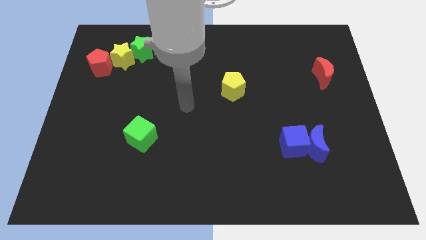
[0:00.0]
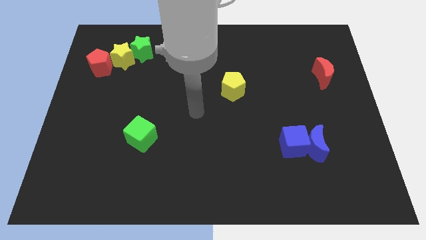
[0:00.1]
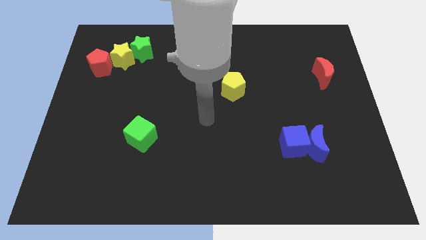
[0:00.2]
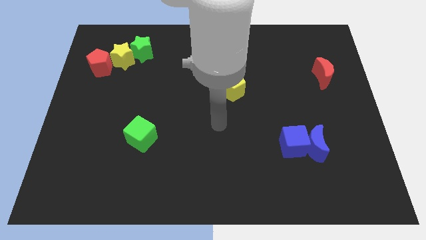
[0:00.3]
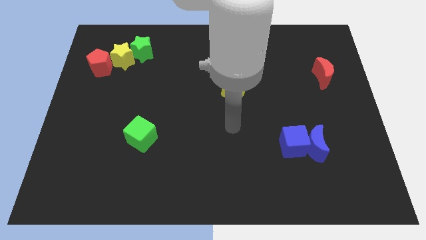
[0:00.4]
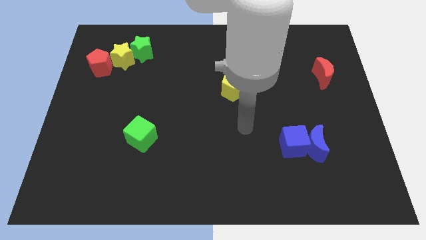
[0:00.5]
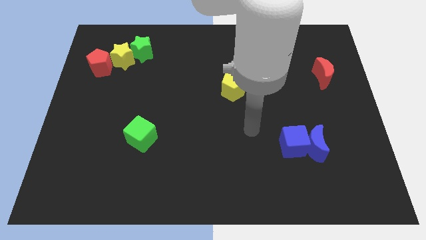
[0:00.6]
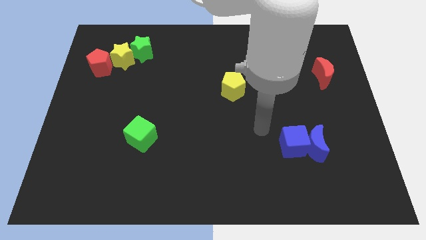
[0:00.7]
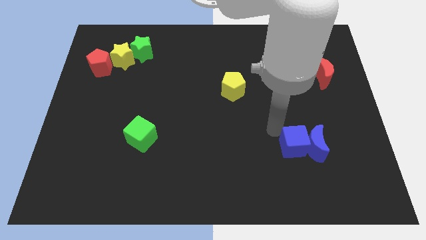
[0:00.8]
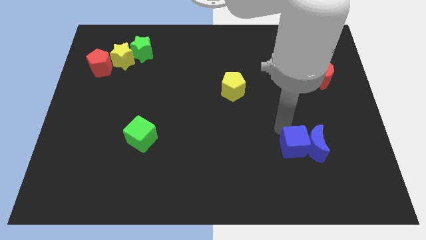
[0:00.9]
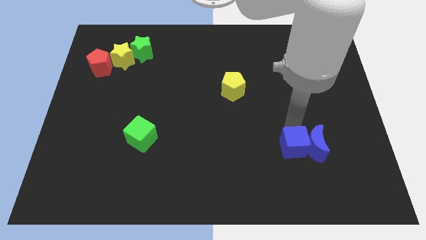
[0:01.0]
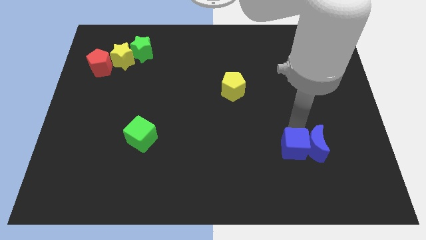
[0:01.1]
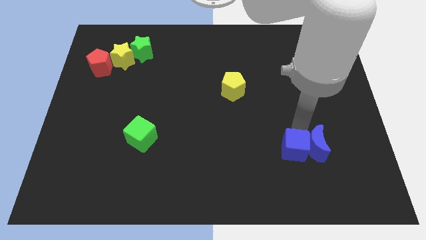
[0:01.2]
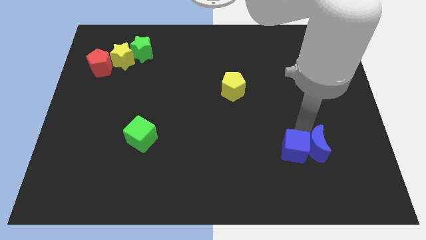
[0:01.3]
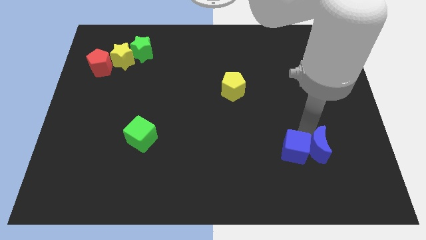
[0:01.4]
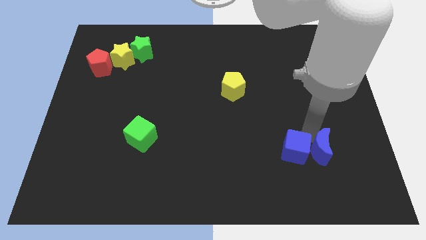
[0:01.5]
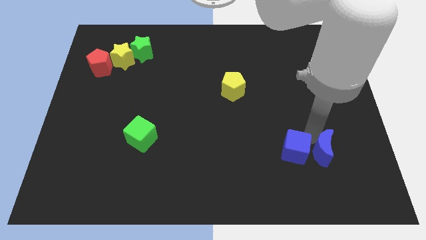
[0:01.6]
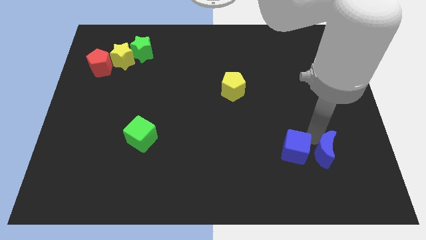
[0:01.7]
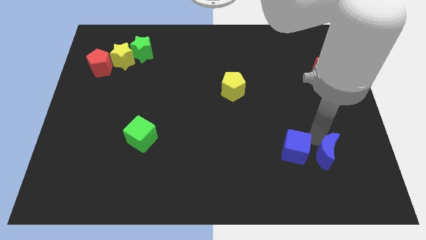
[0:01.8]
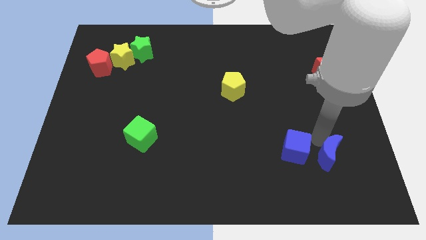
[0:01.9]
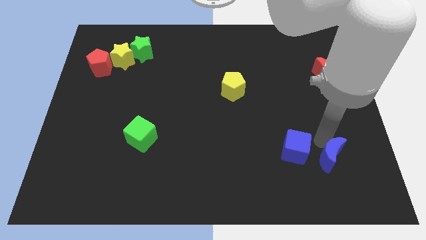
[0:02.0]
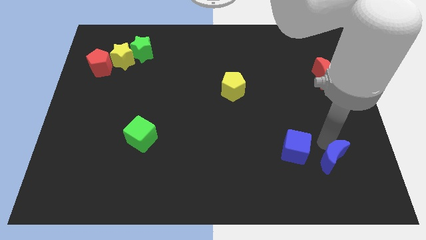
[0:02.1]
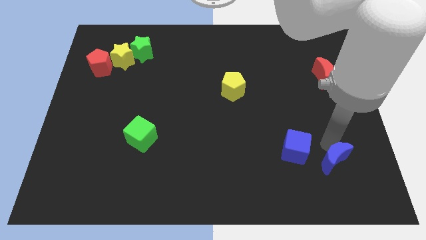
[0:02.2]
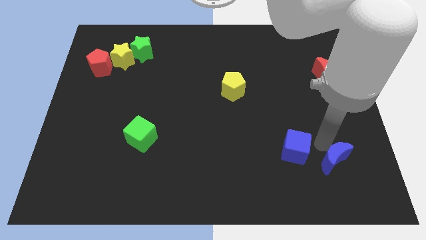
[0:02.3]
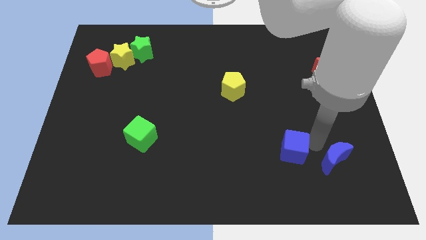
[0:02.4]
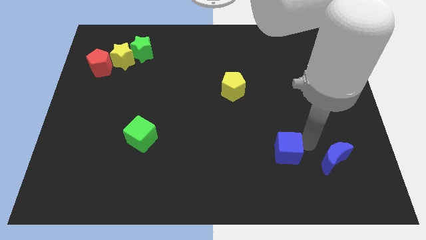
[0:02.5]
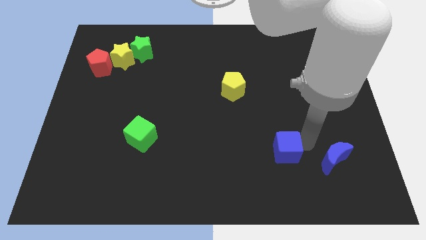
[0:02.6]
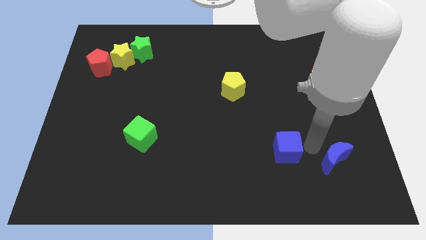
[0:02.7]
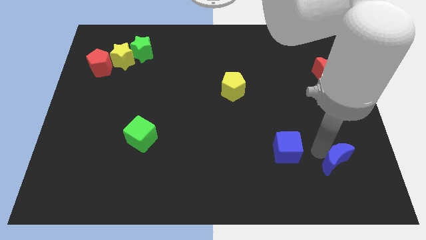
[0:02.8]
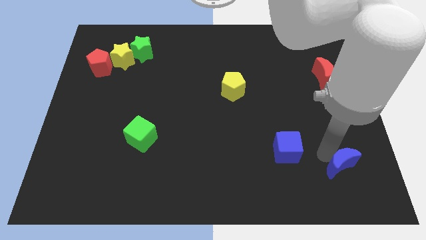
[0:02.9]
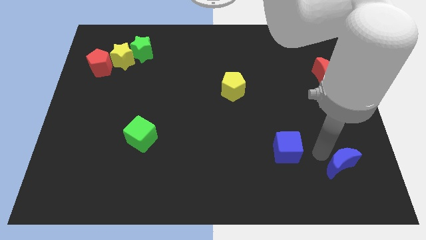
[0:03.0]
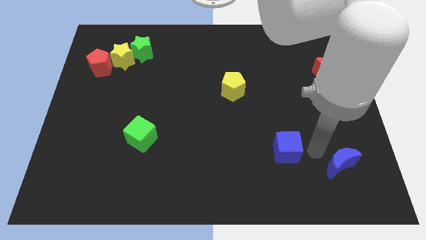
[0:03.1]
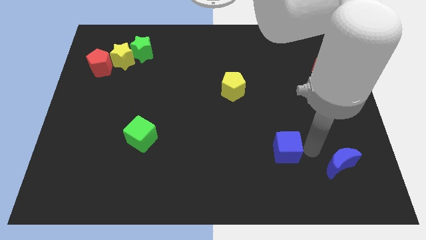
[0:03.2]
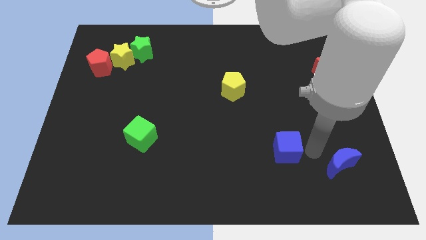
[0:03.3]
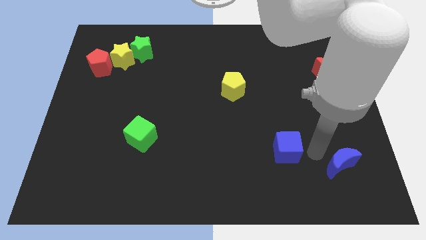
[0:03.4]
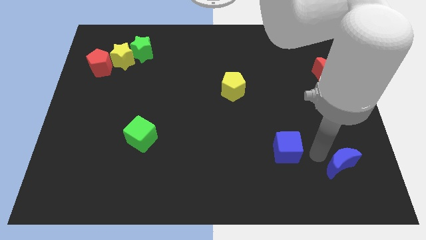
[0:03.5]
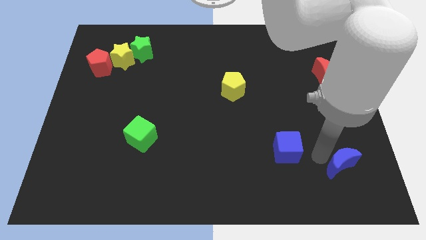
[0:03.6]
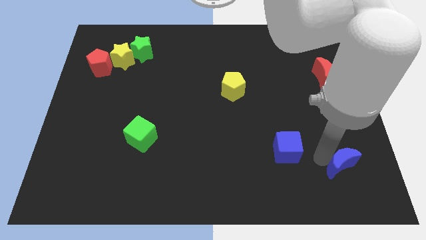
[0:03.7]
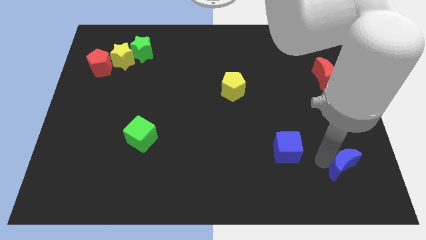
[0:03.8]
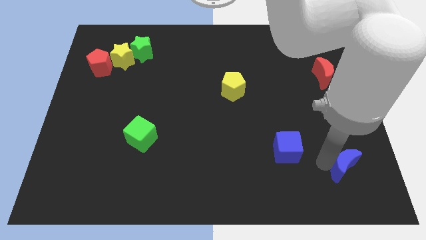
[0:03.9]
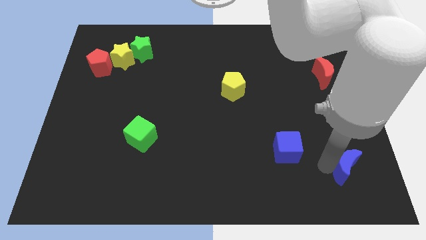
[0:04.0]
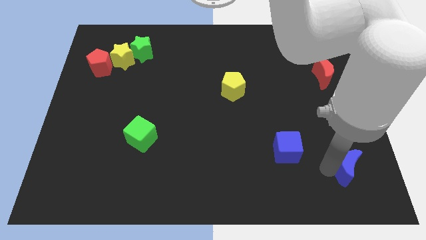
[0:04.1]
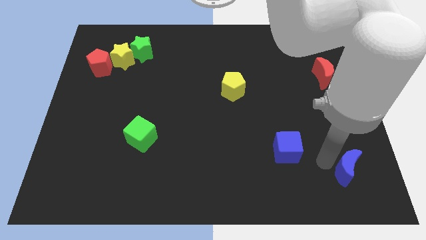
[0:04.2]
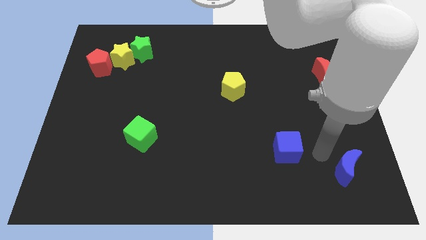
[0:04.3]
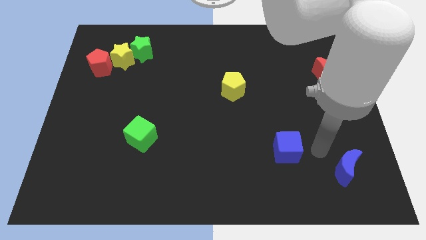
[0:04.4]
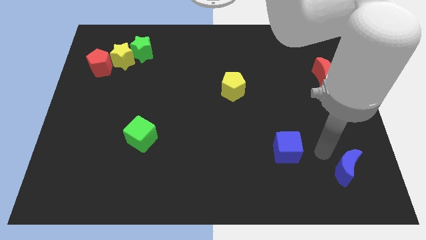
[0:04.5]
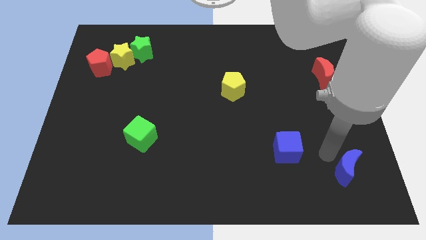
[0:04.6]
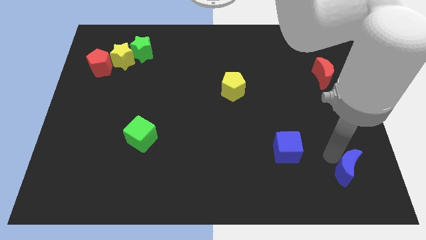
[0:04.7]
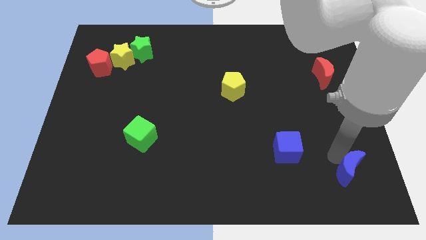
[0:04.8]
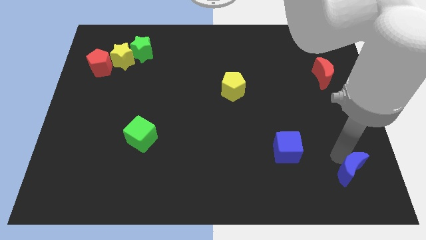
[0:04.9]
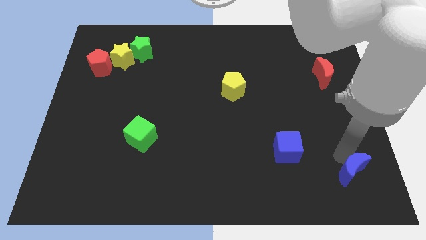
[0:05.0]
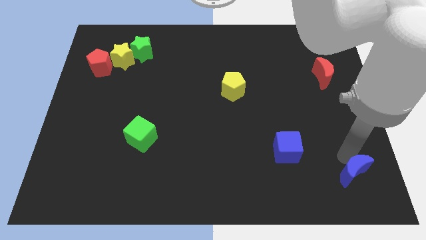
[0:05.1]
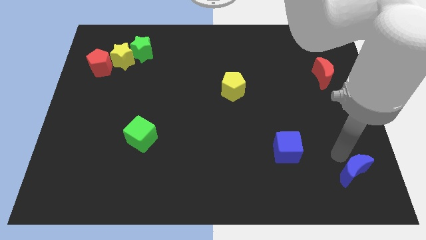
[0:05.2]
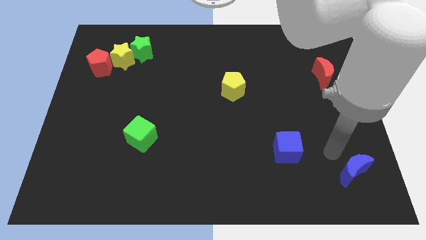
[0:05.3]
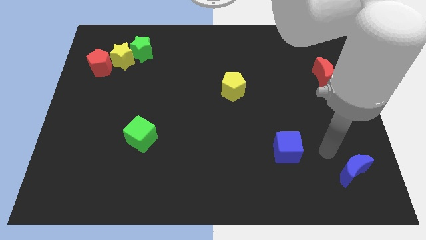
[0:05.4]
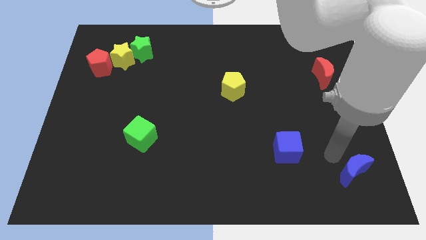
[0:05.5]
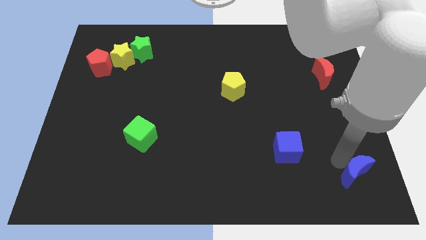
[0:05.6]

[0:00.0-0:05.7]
push the blue moon to the bottom right corner
